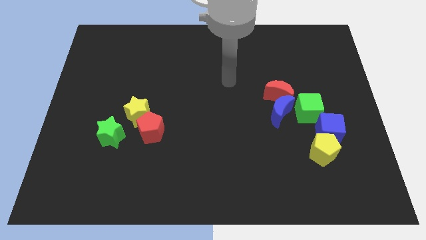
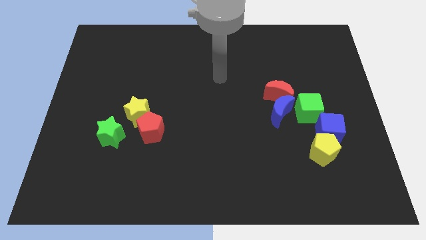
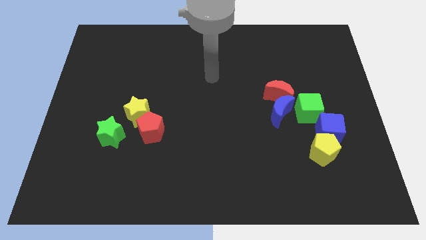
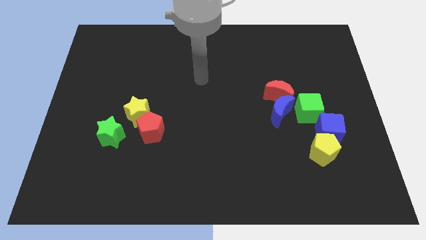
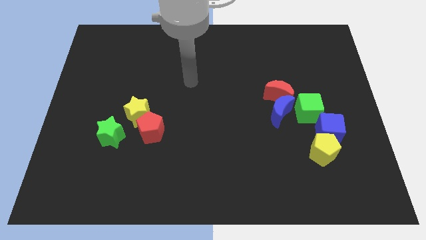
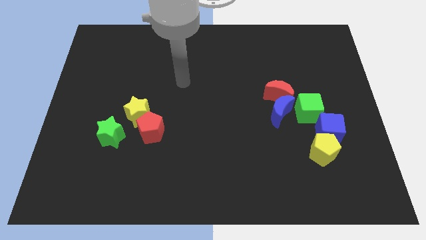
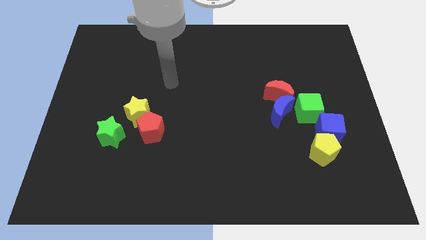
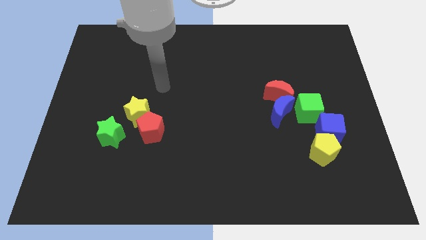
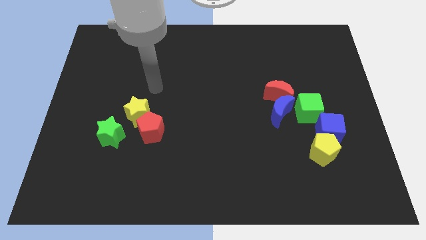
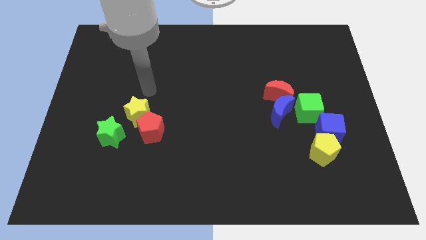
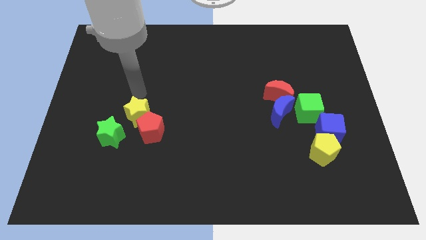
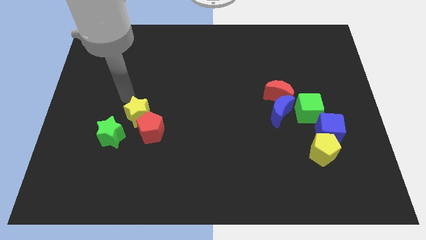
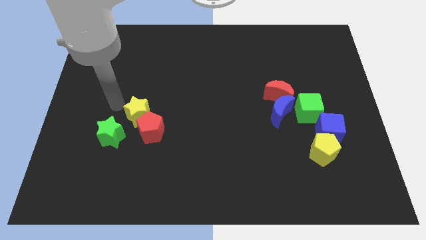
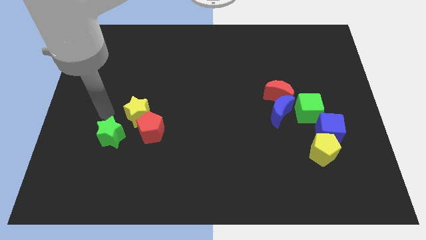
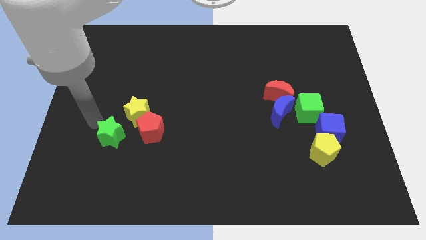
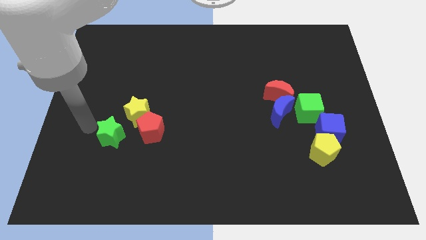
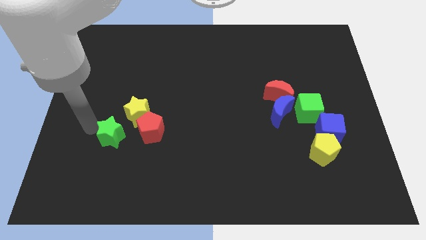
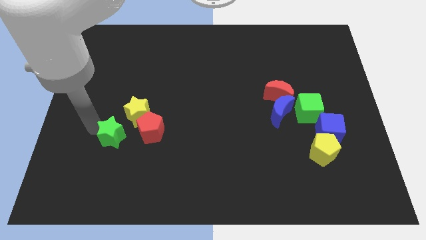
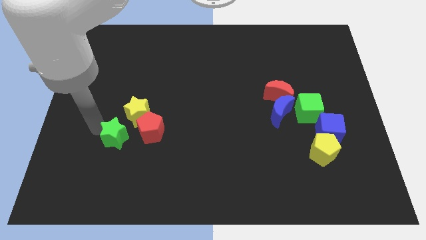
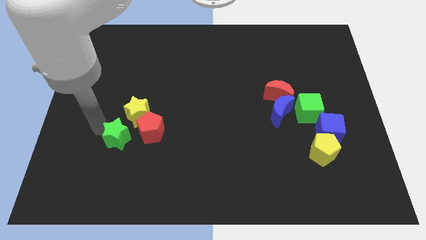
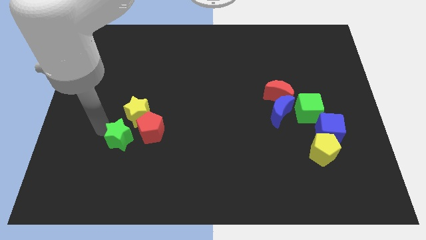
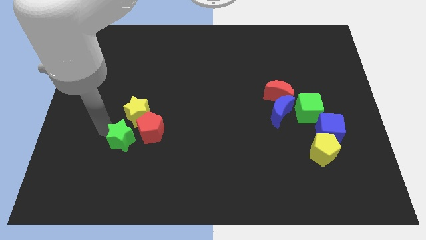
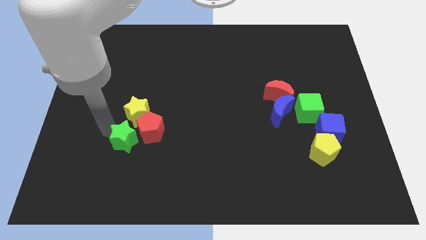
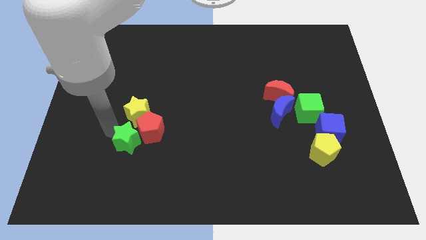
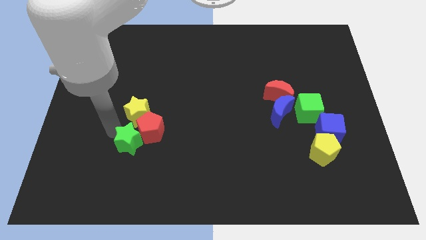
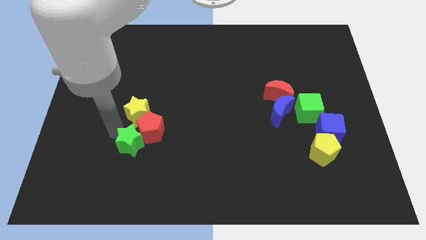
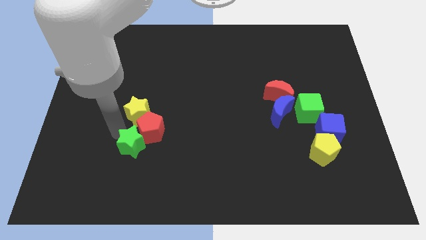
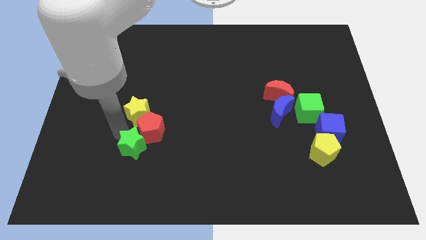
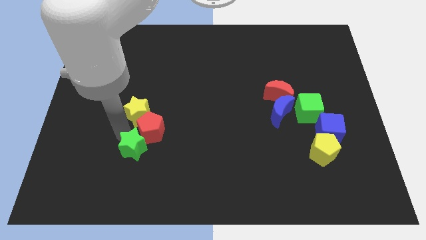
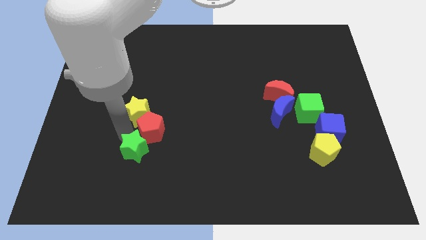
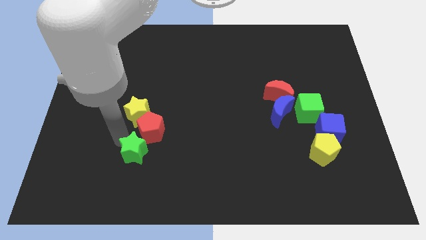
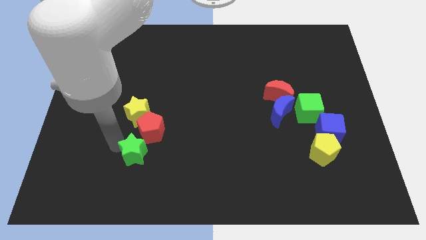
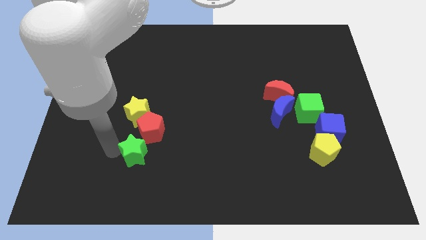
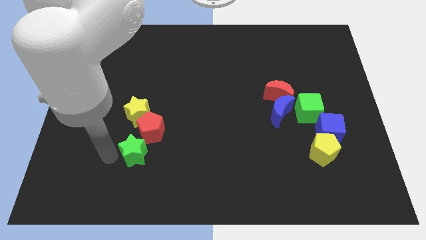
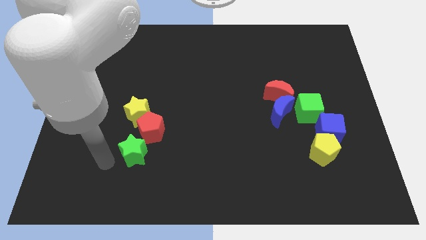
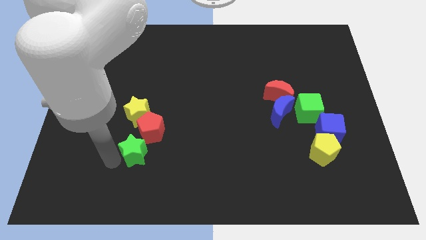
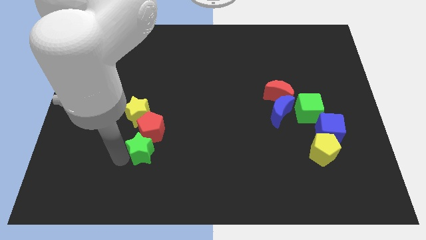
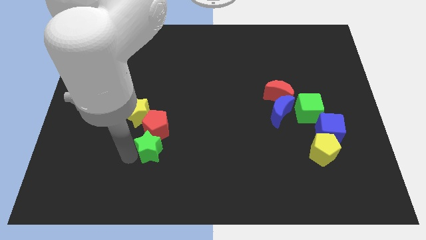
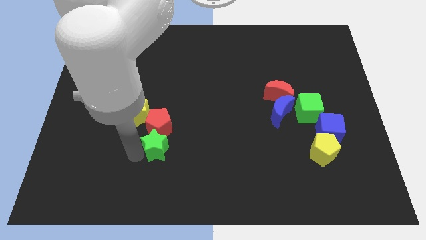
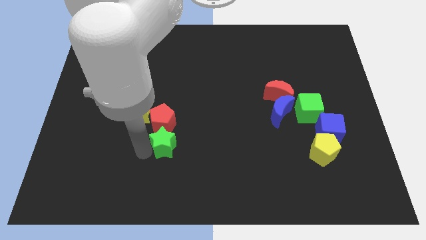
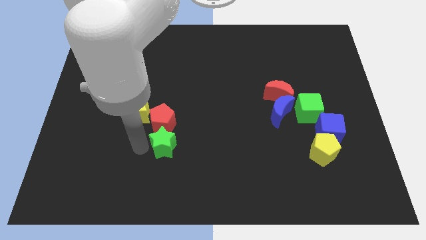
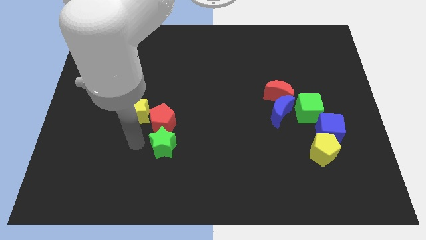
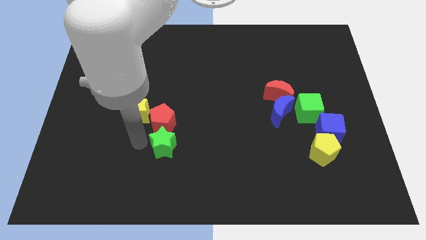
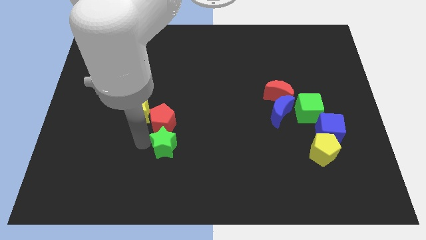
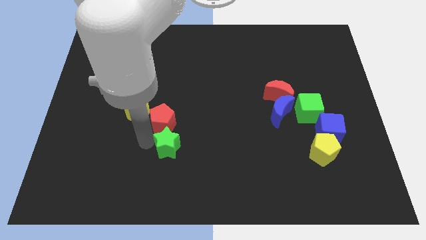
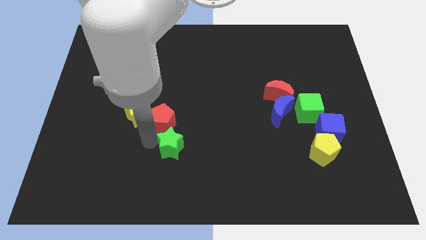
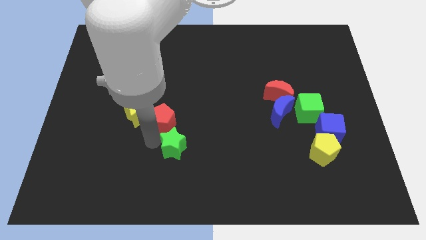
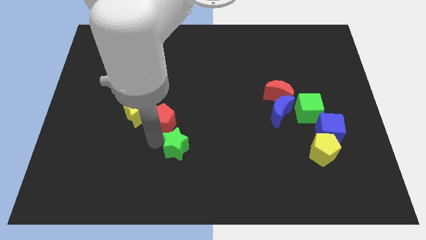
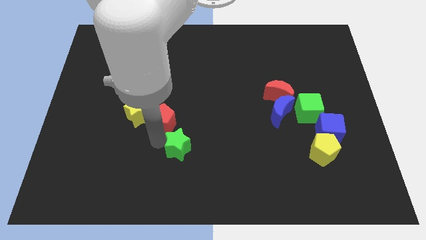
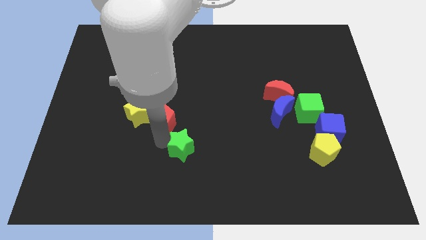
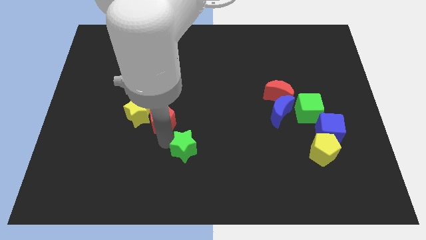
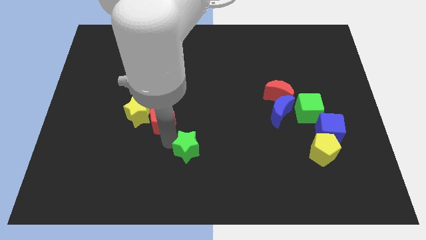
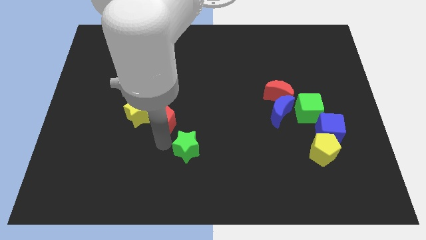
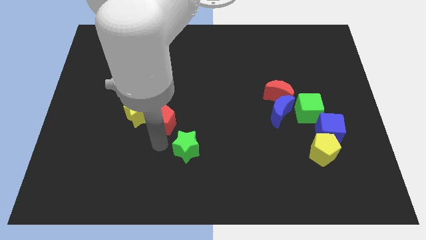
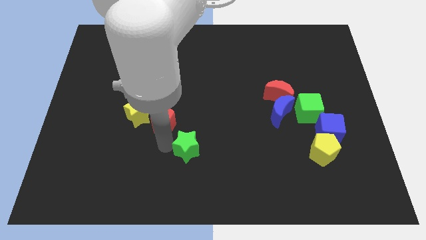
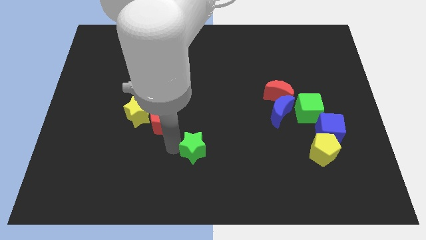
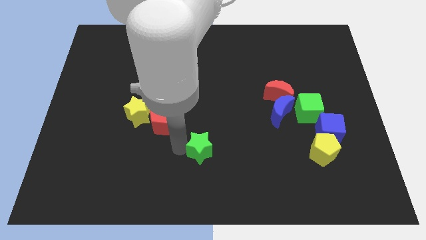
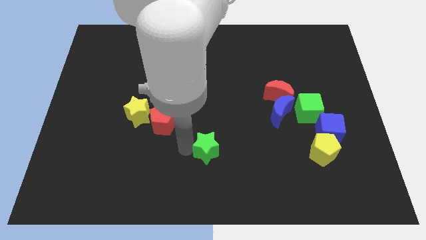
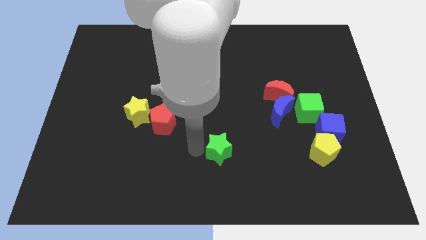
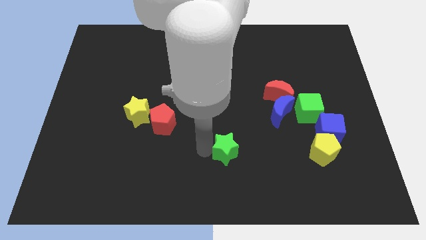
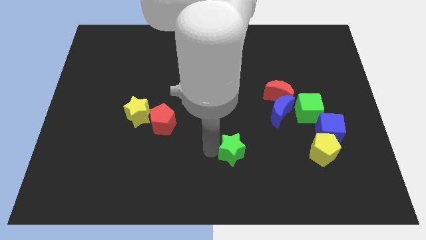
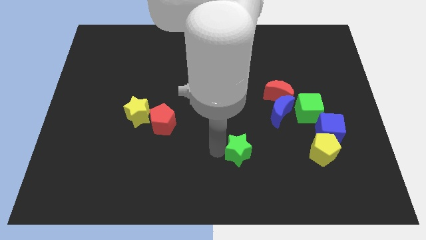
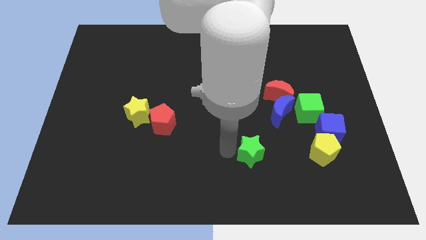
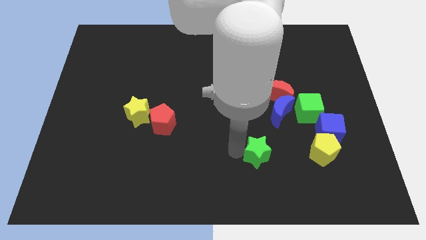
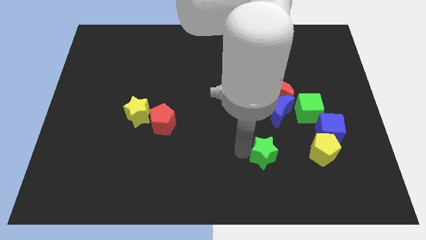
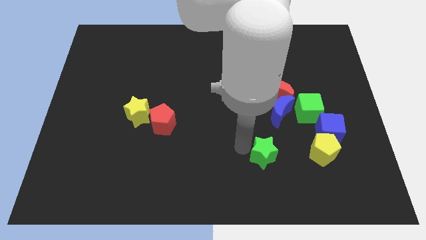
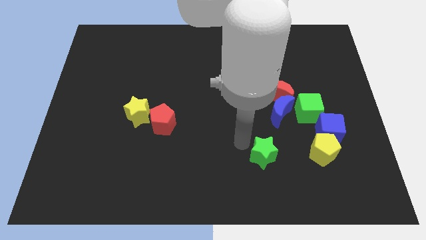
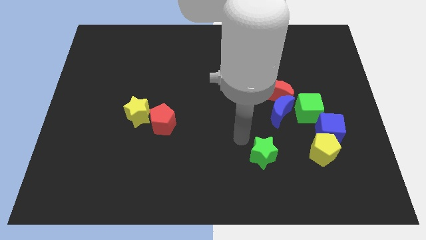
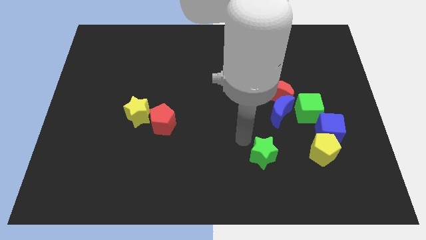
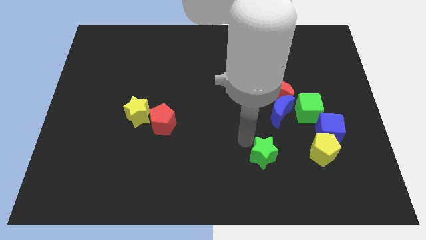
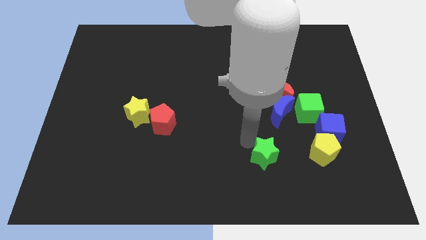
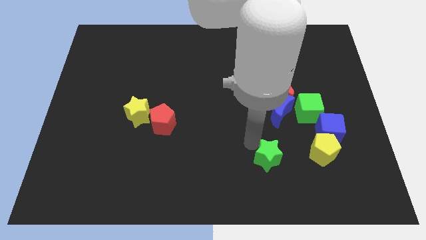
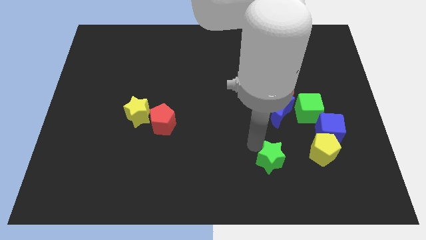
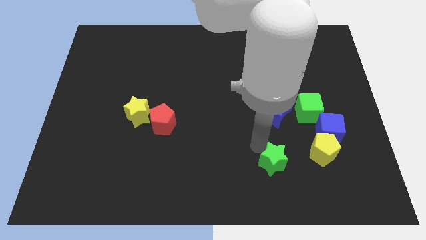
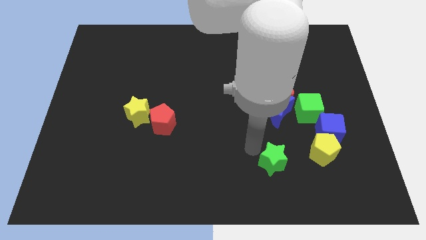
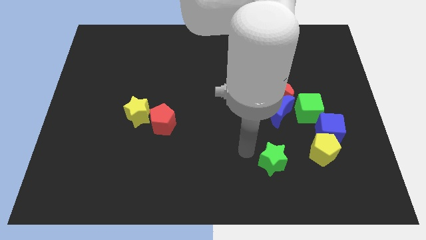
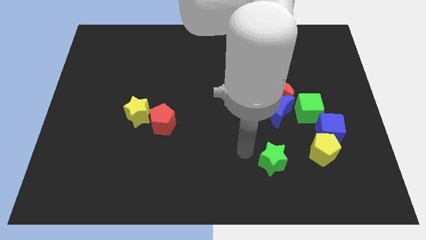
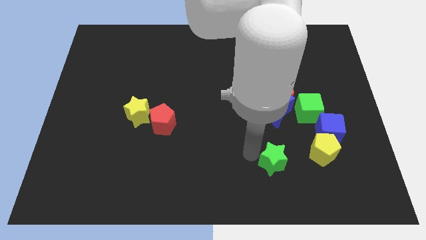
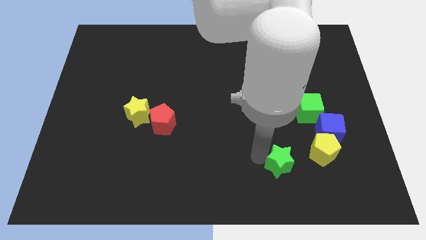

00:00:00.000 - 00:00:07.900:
put the green star to the bottom left of the yellow pentagon
